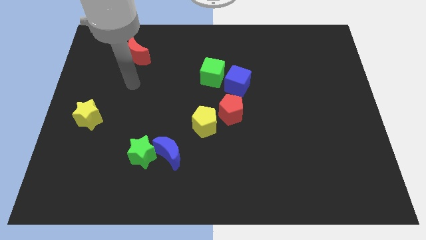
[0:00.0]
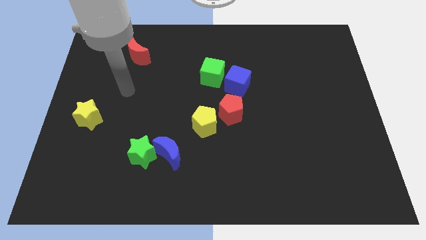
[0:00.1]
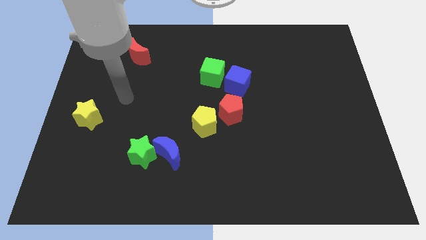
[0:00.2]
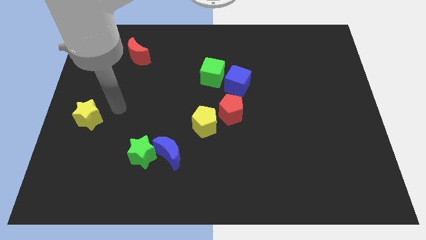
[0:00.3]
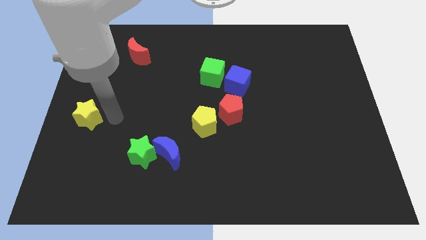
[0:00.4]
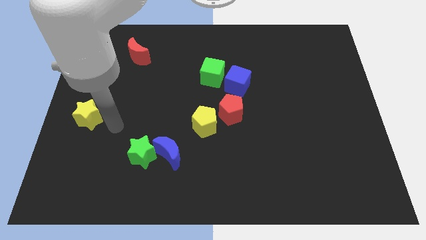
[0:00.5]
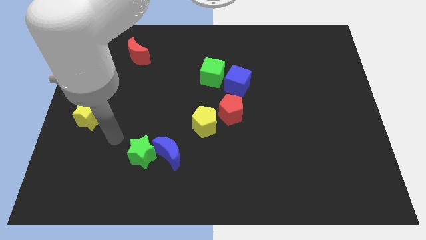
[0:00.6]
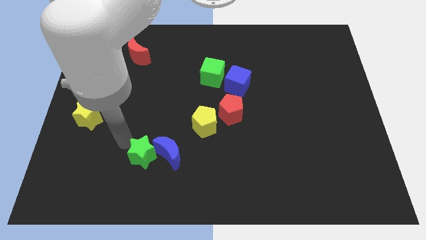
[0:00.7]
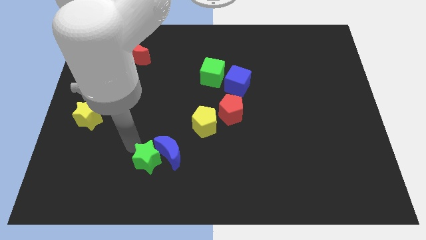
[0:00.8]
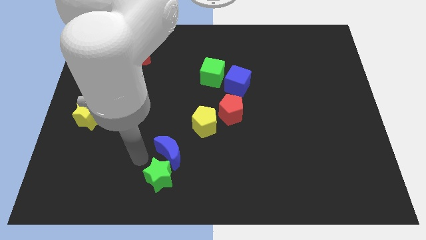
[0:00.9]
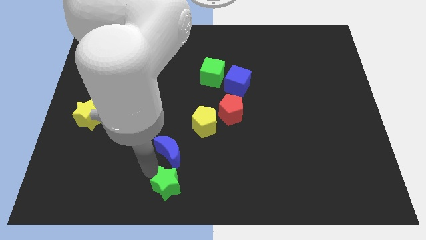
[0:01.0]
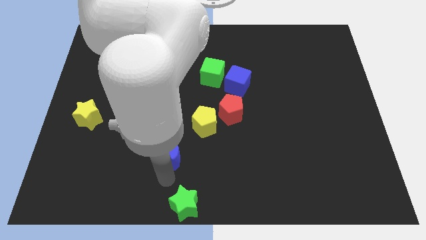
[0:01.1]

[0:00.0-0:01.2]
pull the blue moon apart from the green star

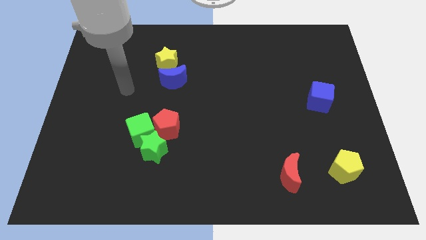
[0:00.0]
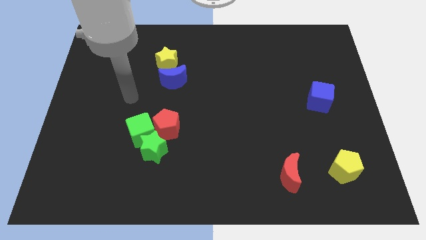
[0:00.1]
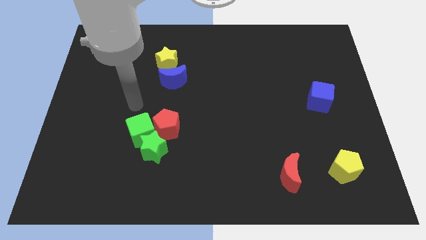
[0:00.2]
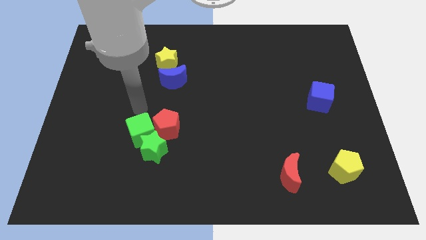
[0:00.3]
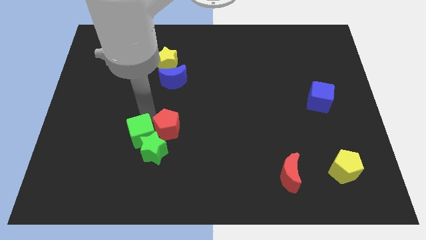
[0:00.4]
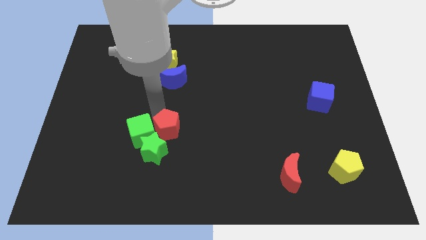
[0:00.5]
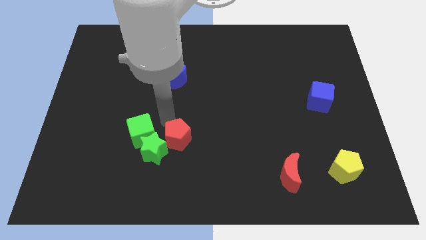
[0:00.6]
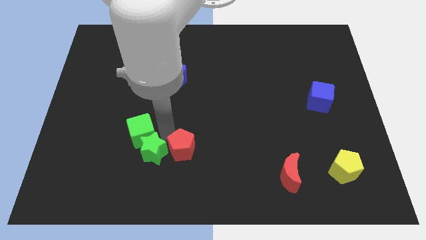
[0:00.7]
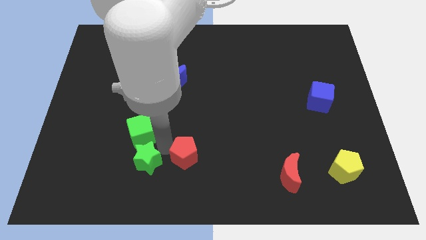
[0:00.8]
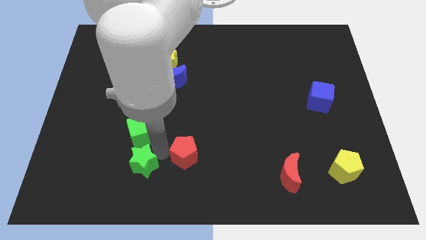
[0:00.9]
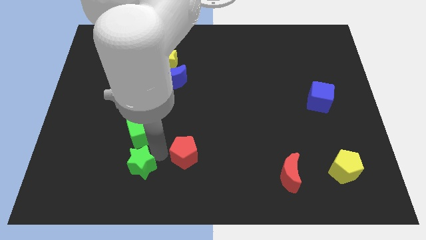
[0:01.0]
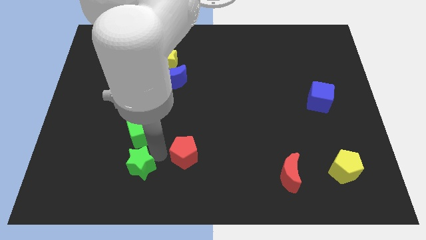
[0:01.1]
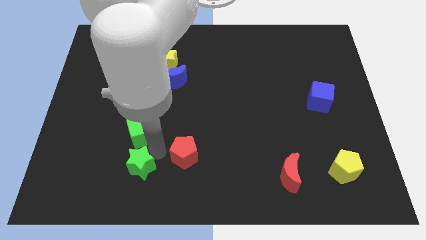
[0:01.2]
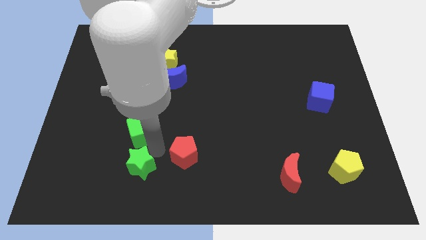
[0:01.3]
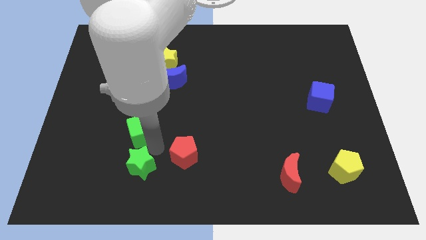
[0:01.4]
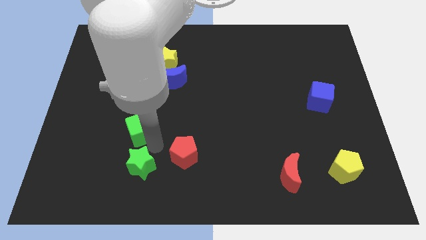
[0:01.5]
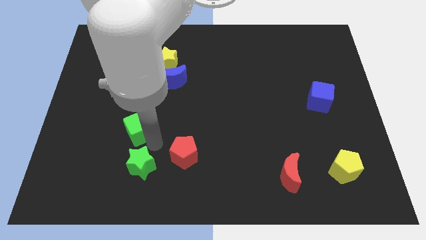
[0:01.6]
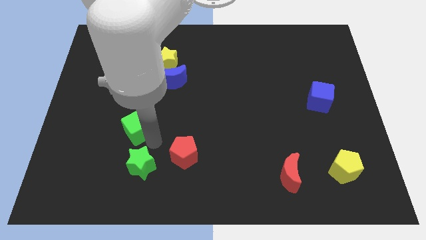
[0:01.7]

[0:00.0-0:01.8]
move the green cube away from the green star and red pentagon

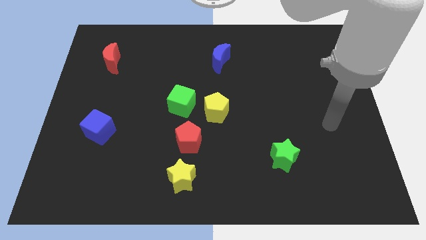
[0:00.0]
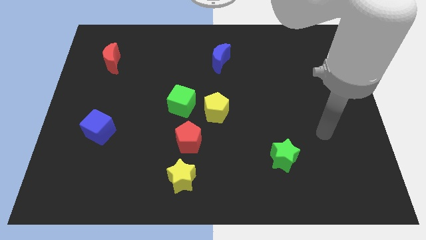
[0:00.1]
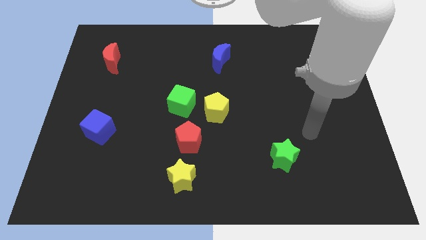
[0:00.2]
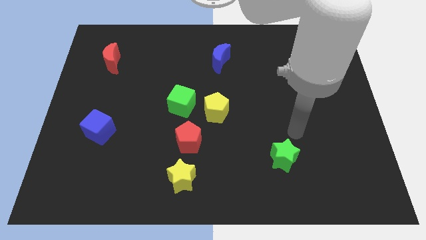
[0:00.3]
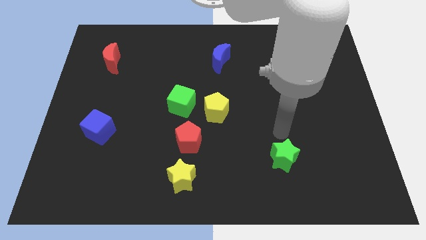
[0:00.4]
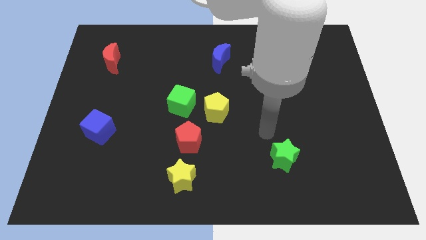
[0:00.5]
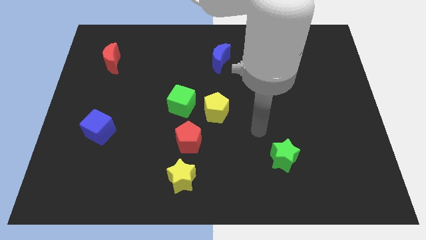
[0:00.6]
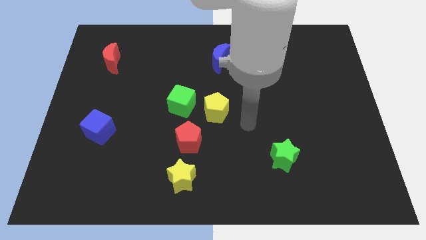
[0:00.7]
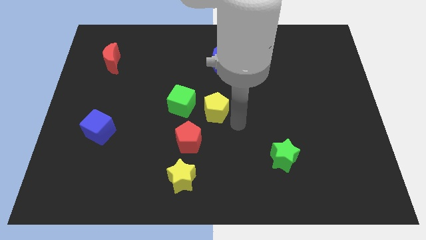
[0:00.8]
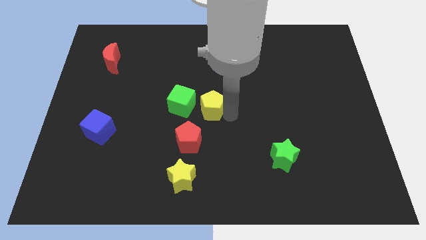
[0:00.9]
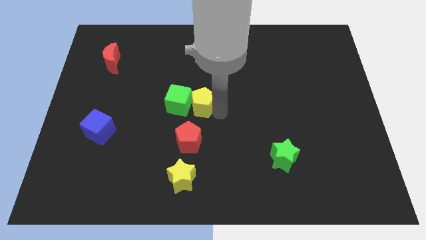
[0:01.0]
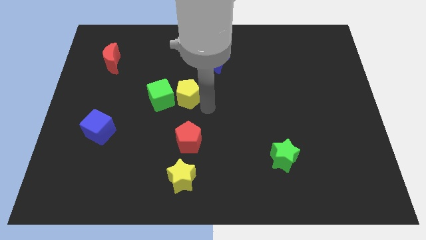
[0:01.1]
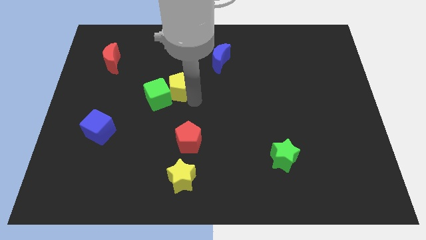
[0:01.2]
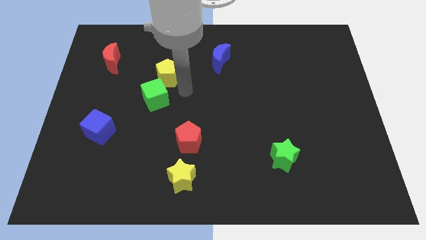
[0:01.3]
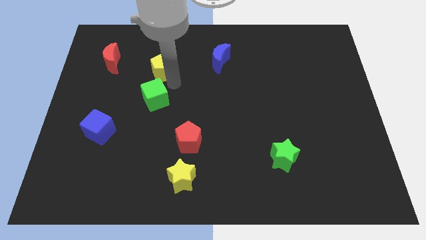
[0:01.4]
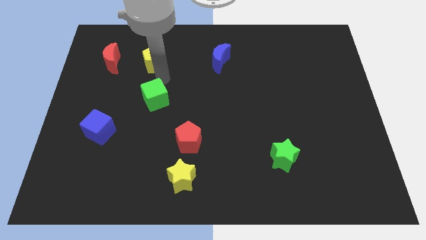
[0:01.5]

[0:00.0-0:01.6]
separate the green cube from the yellow pentagon

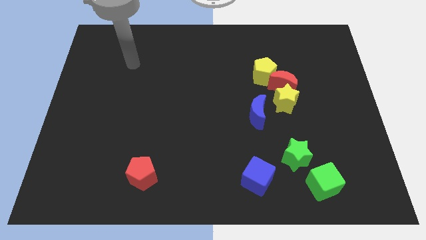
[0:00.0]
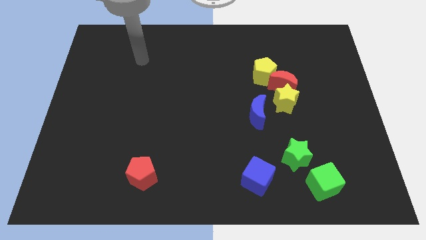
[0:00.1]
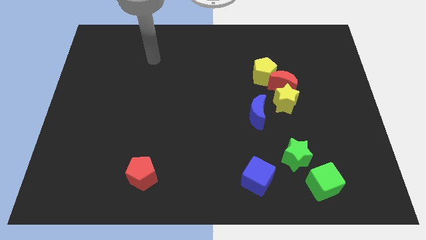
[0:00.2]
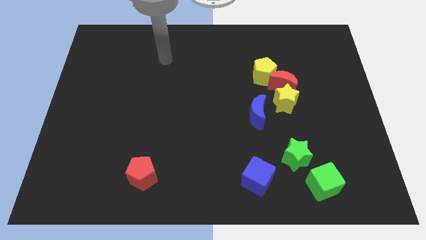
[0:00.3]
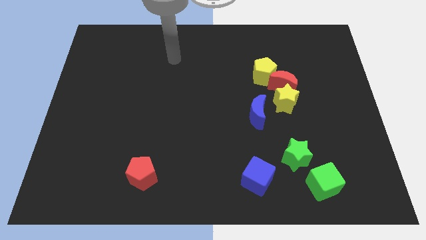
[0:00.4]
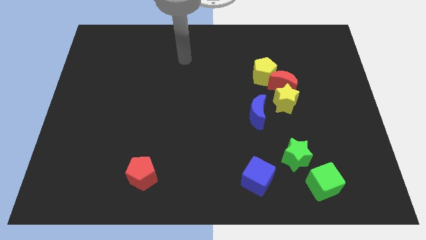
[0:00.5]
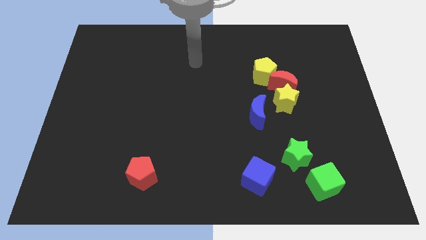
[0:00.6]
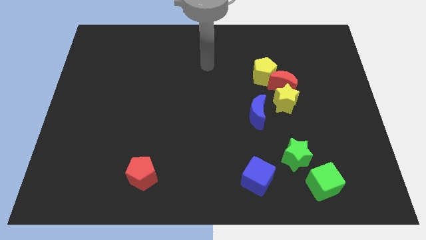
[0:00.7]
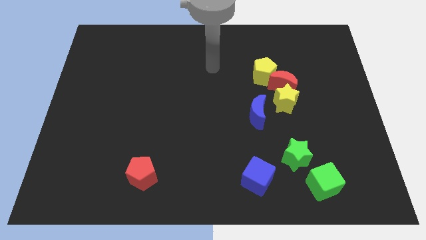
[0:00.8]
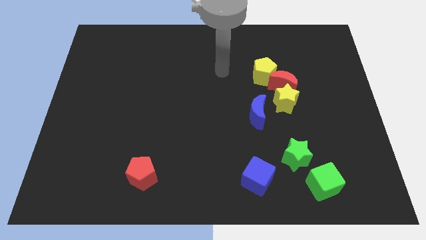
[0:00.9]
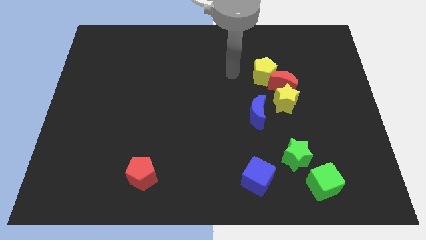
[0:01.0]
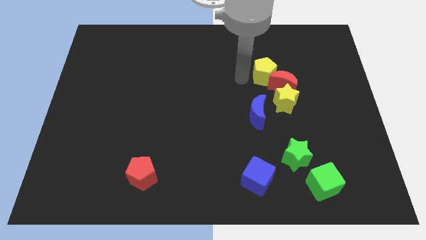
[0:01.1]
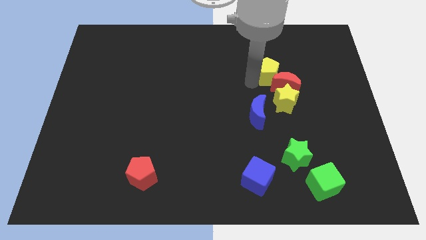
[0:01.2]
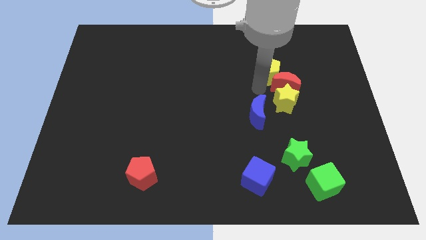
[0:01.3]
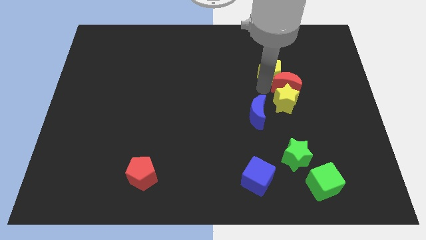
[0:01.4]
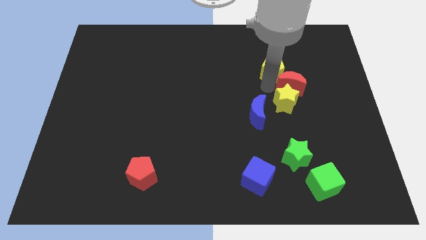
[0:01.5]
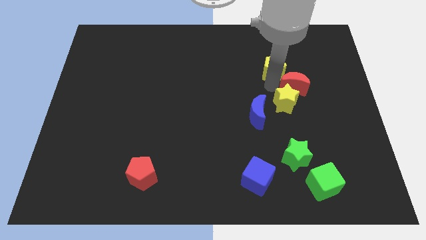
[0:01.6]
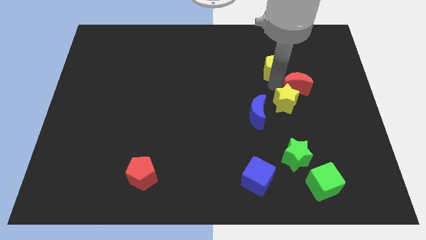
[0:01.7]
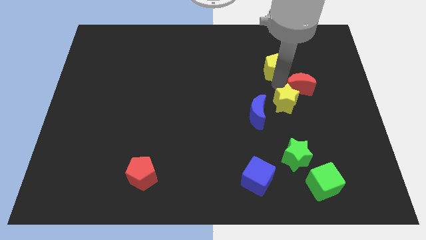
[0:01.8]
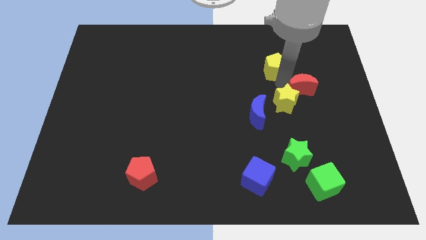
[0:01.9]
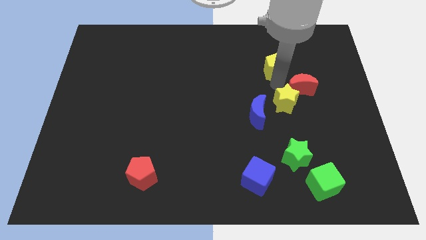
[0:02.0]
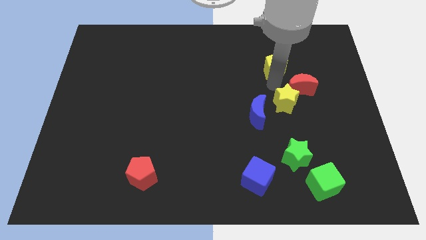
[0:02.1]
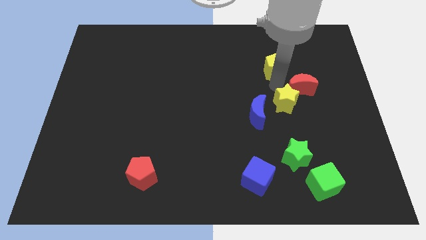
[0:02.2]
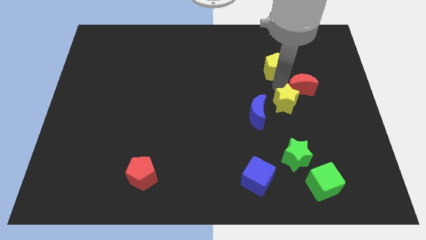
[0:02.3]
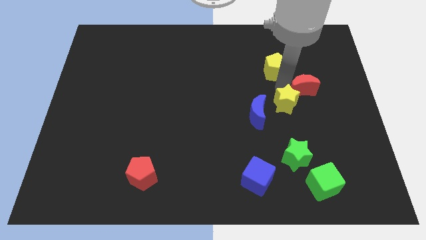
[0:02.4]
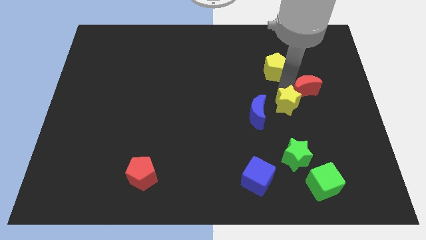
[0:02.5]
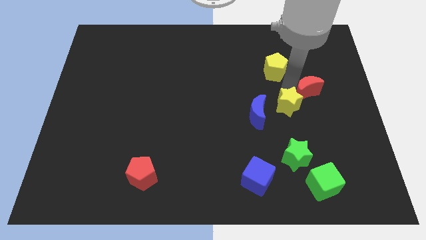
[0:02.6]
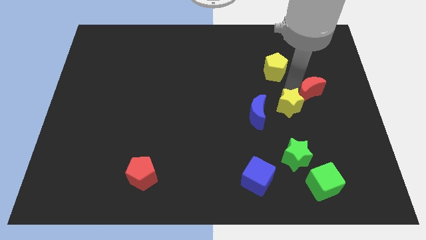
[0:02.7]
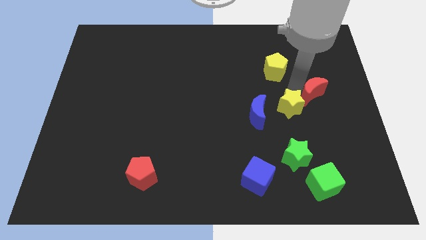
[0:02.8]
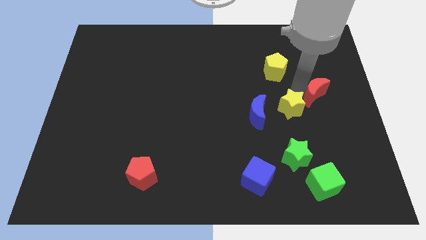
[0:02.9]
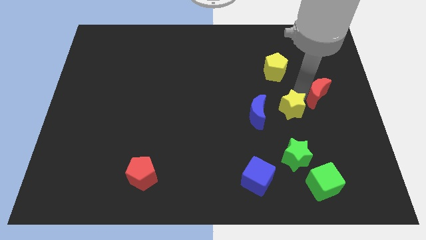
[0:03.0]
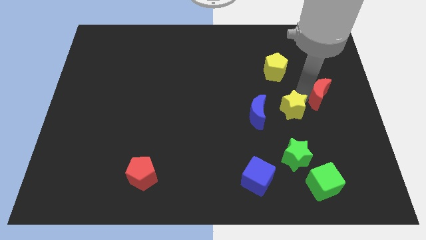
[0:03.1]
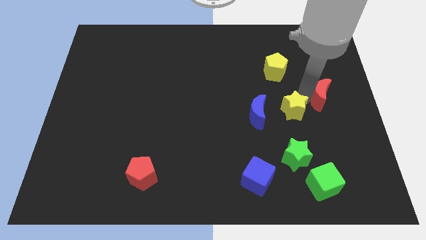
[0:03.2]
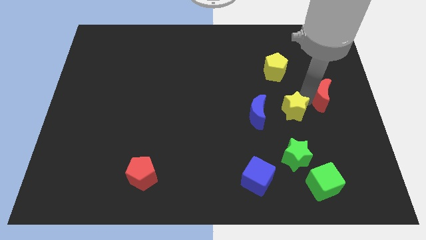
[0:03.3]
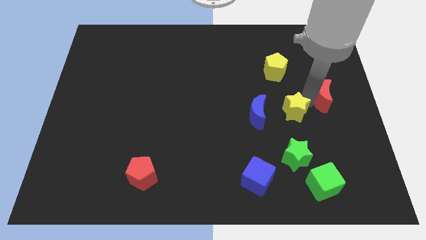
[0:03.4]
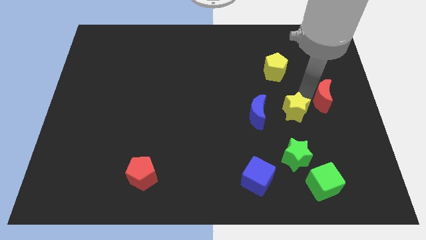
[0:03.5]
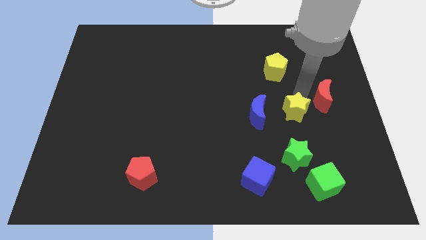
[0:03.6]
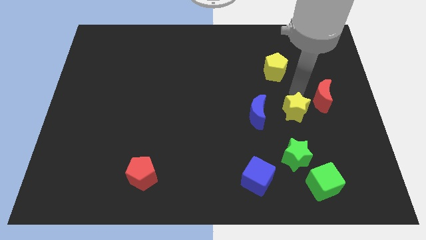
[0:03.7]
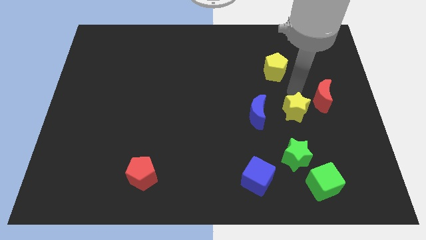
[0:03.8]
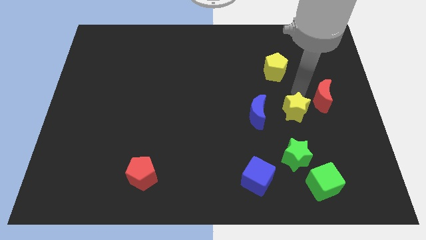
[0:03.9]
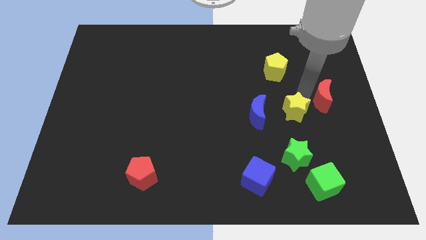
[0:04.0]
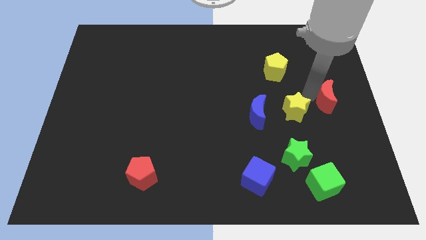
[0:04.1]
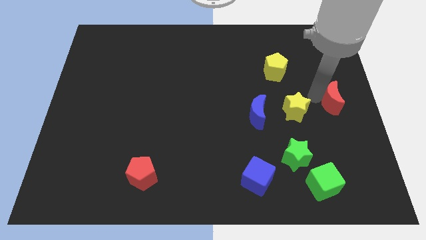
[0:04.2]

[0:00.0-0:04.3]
pull the red moon apart from the yellow star and yellow pentagon

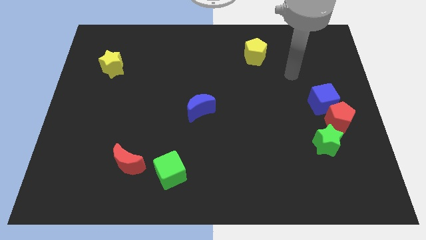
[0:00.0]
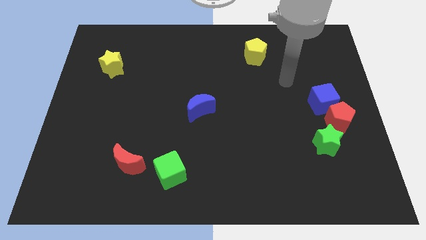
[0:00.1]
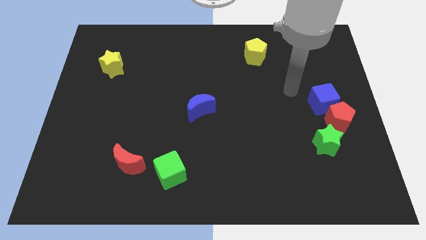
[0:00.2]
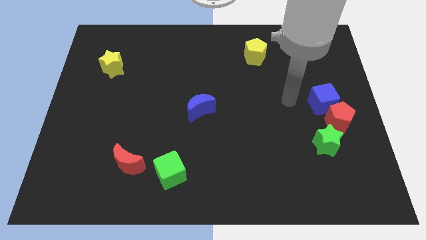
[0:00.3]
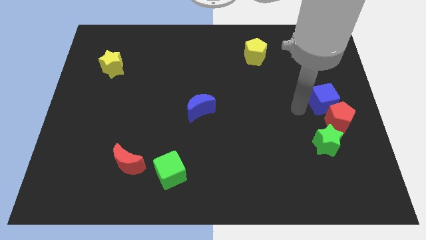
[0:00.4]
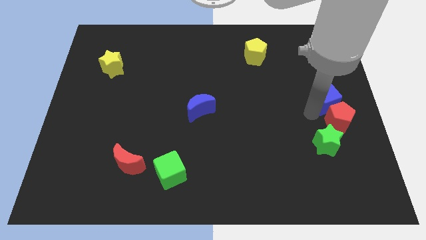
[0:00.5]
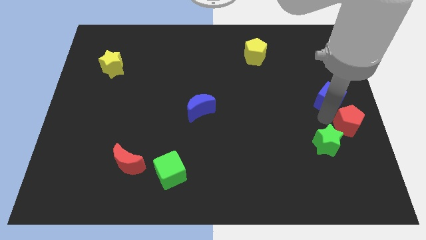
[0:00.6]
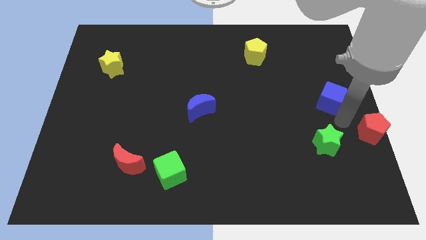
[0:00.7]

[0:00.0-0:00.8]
move the blue cube away from the red pentagon
